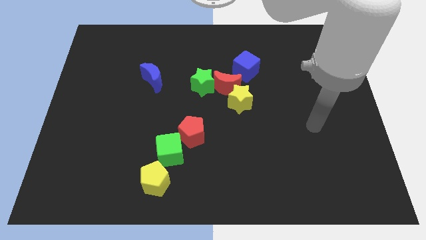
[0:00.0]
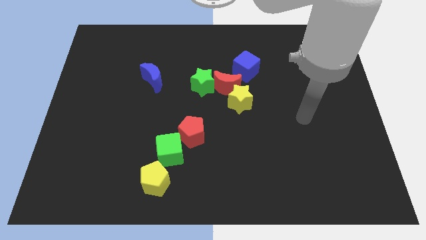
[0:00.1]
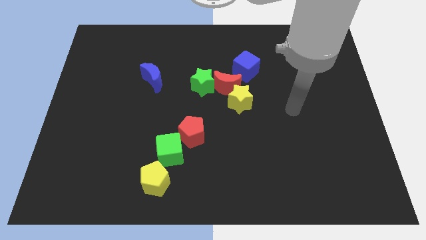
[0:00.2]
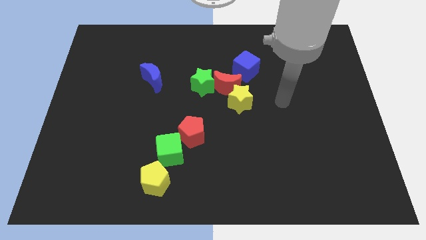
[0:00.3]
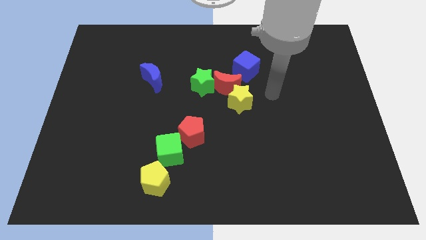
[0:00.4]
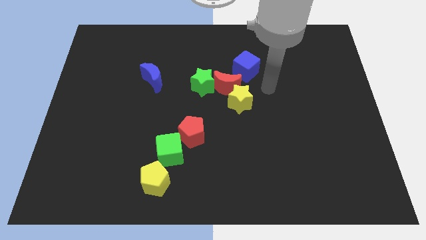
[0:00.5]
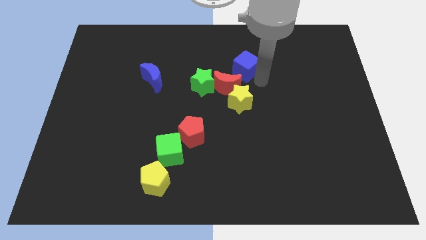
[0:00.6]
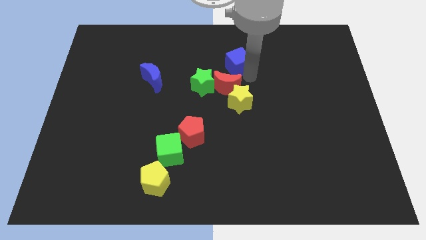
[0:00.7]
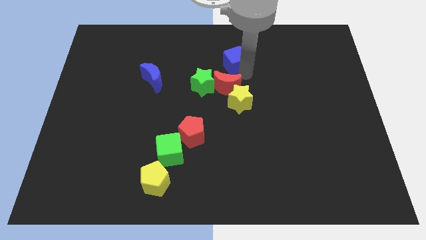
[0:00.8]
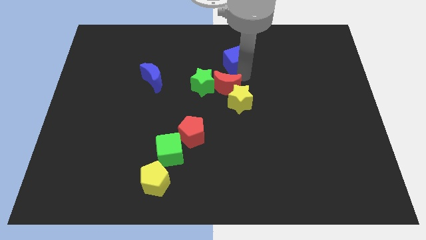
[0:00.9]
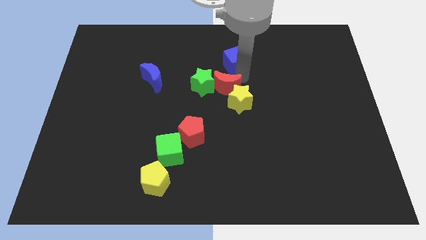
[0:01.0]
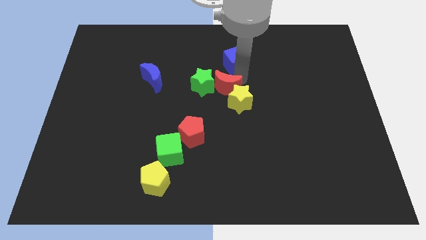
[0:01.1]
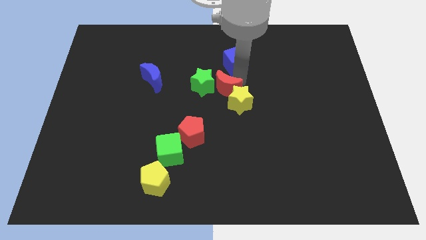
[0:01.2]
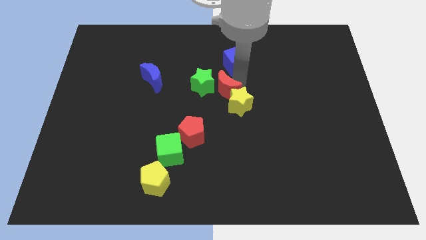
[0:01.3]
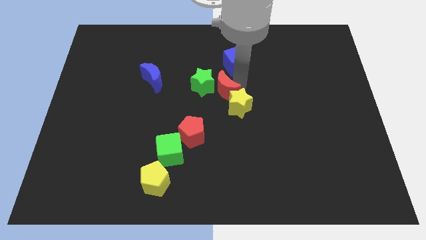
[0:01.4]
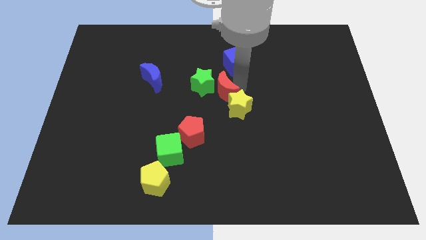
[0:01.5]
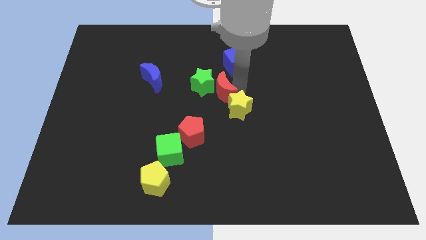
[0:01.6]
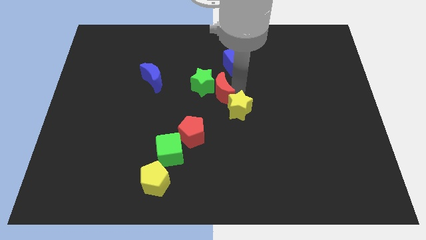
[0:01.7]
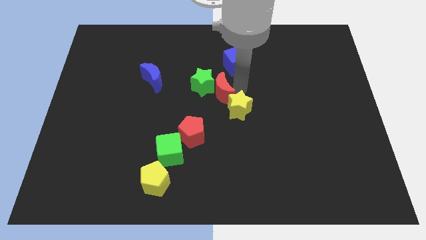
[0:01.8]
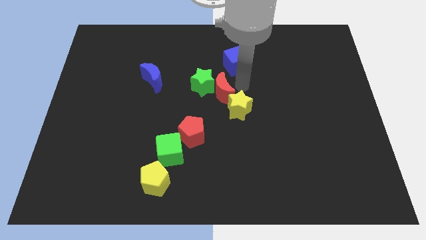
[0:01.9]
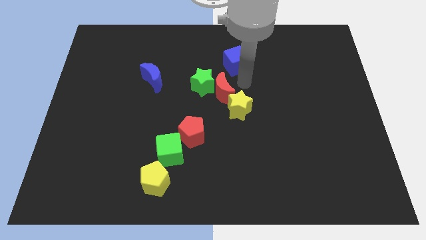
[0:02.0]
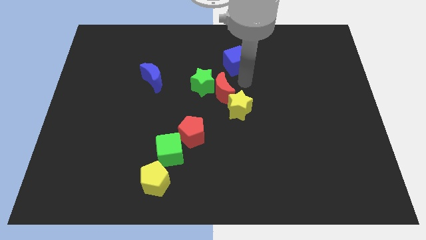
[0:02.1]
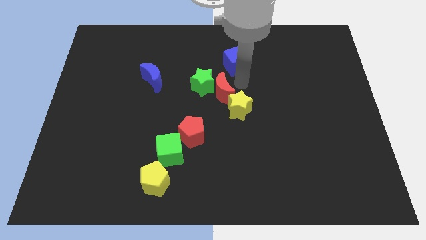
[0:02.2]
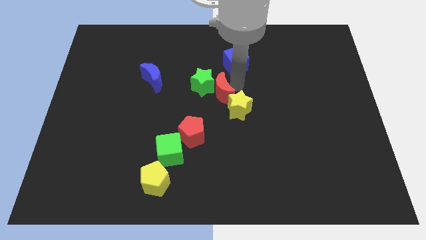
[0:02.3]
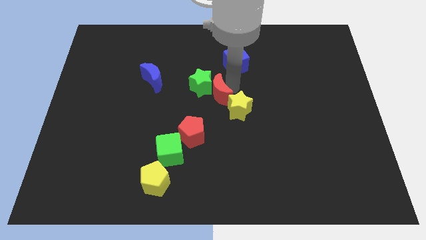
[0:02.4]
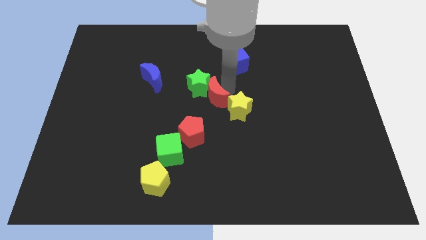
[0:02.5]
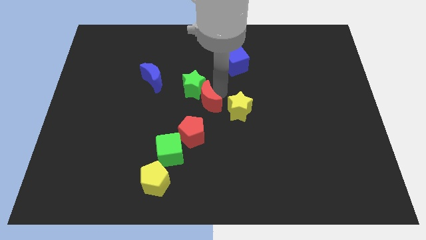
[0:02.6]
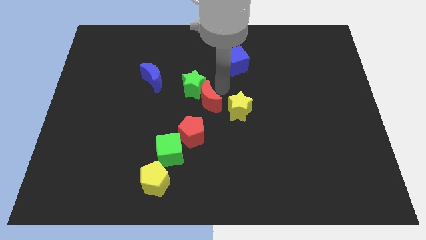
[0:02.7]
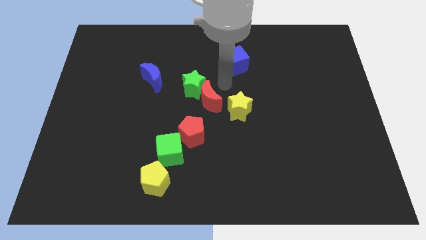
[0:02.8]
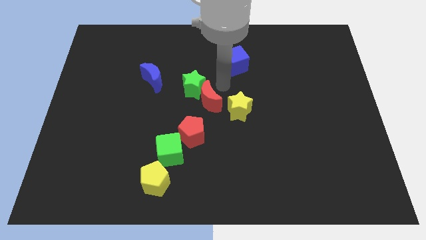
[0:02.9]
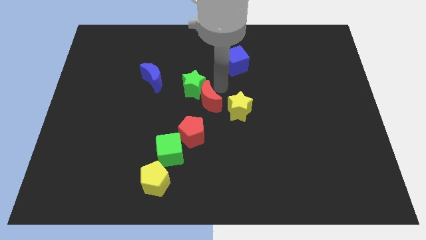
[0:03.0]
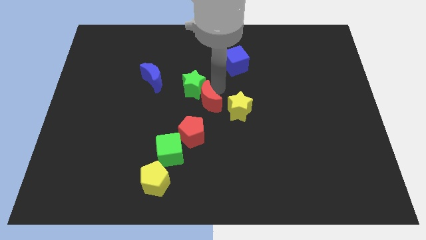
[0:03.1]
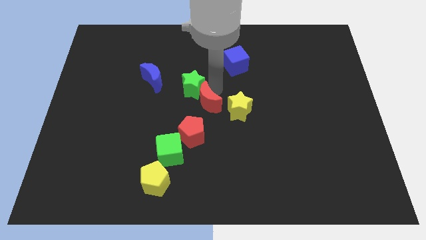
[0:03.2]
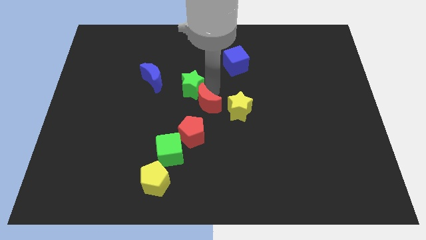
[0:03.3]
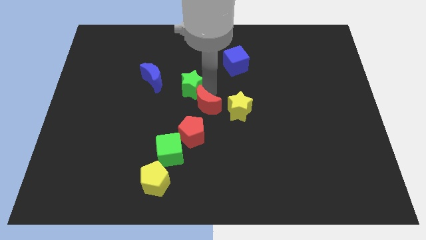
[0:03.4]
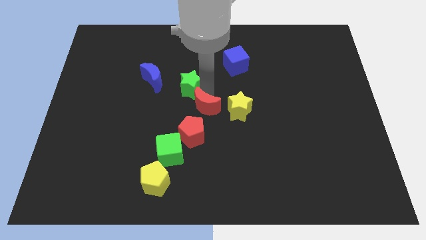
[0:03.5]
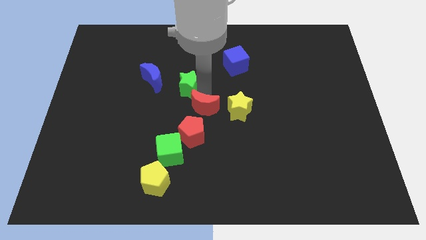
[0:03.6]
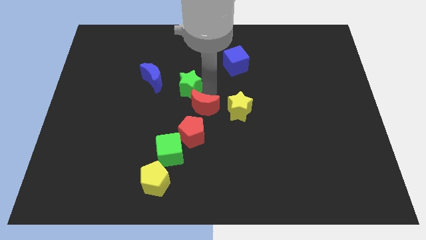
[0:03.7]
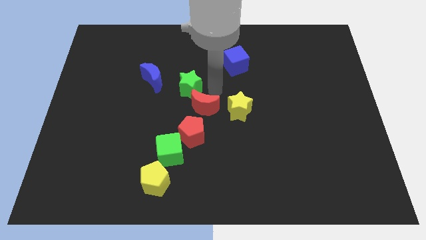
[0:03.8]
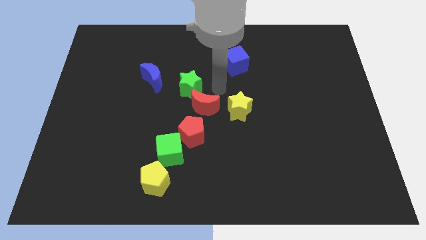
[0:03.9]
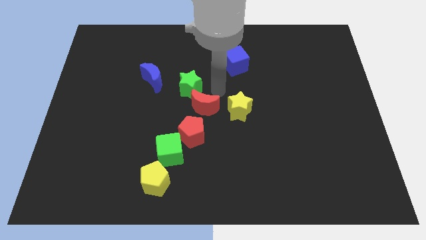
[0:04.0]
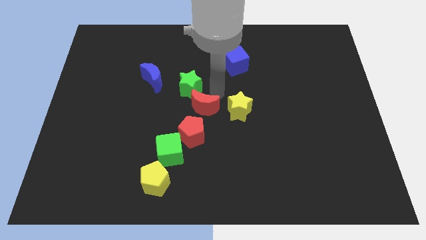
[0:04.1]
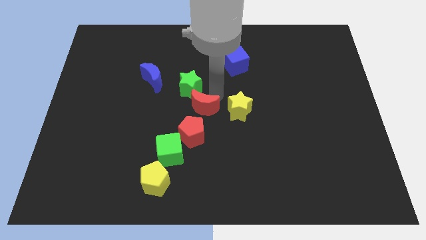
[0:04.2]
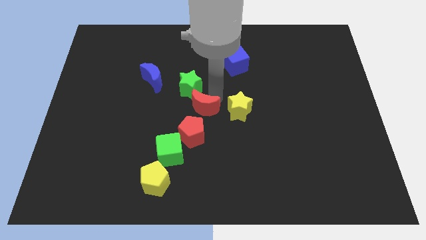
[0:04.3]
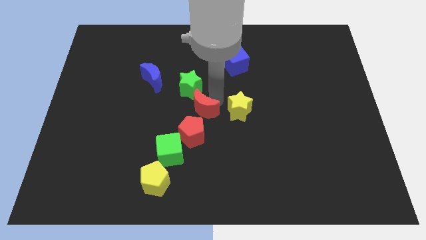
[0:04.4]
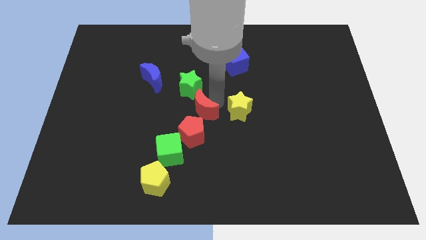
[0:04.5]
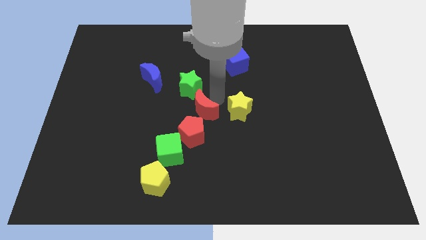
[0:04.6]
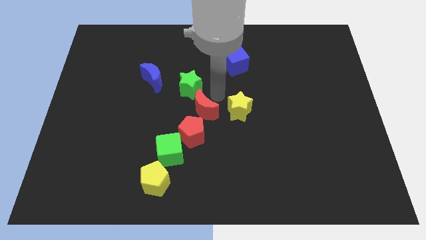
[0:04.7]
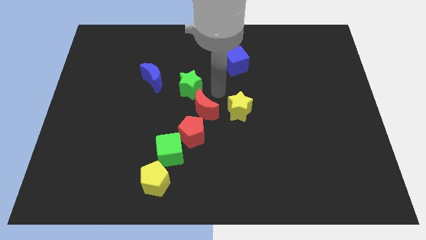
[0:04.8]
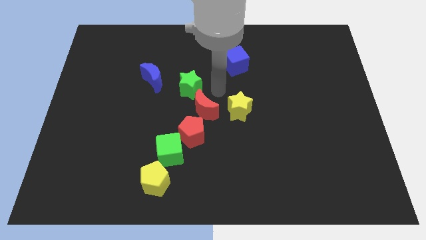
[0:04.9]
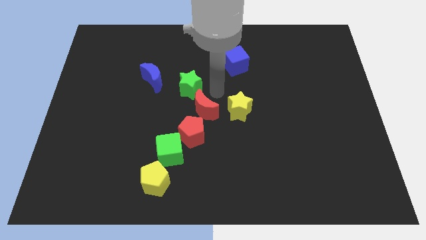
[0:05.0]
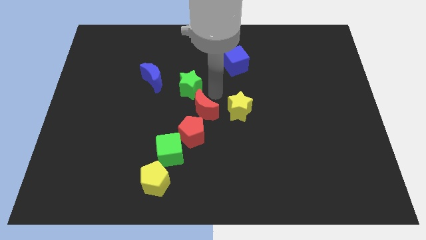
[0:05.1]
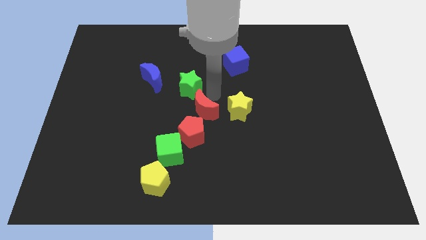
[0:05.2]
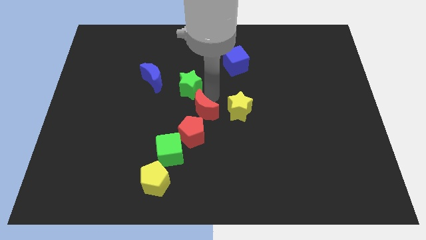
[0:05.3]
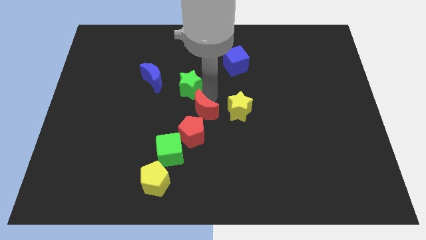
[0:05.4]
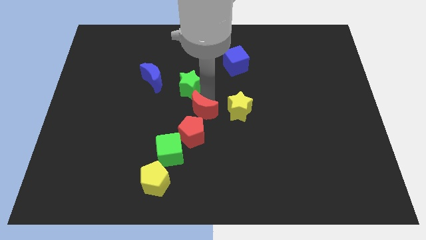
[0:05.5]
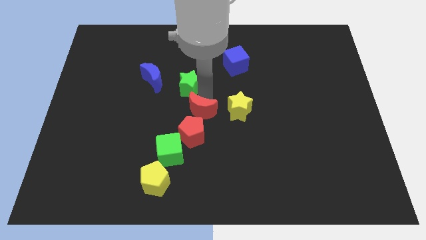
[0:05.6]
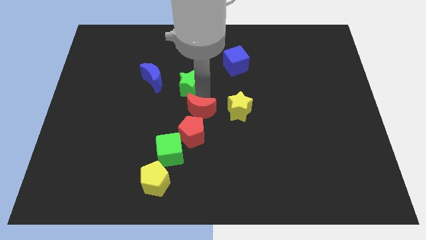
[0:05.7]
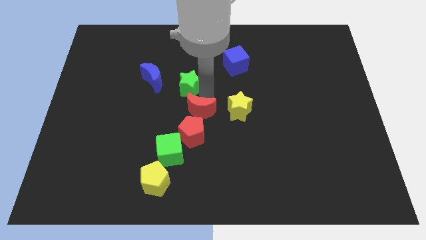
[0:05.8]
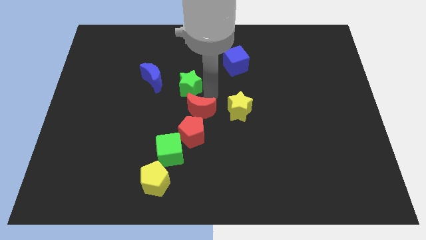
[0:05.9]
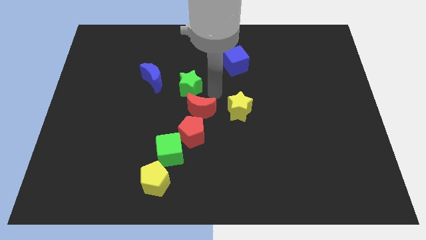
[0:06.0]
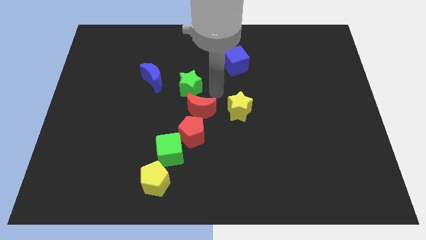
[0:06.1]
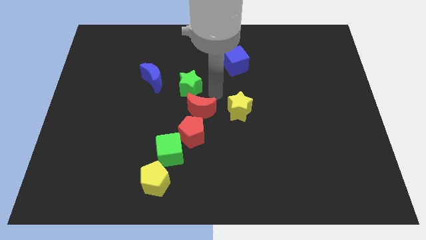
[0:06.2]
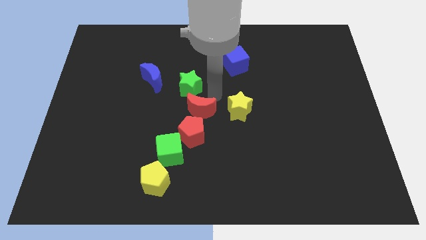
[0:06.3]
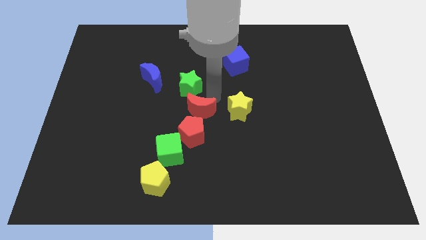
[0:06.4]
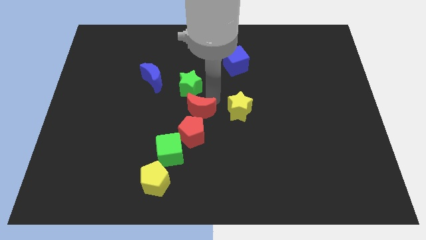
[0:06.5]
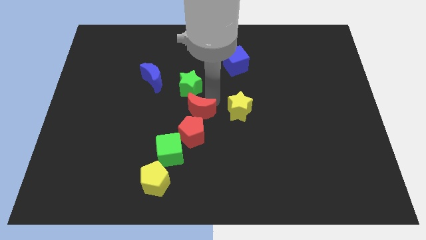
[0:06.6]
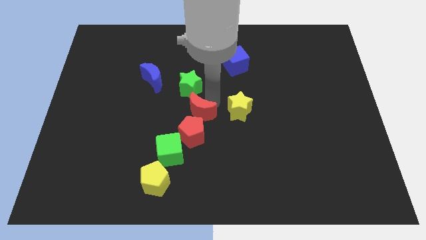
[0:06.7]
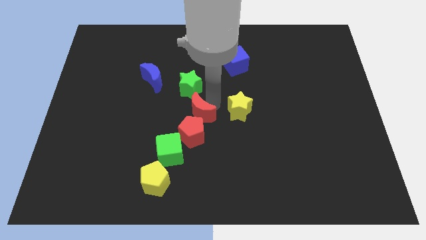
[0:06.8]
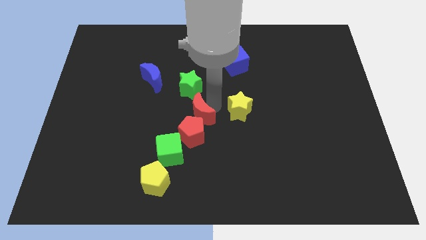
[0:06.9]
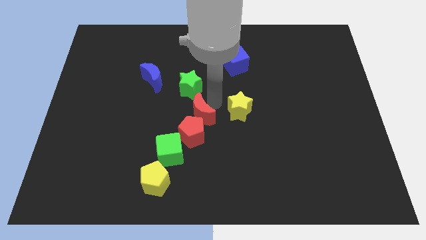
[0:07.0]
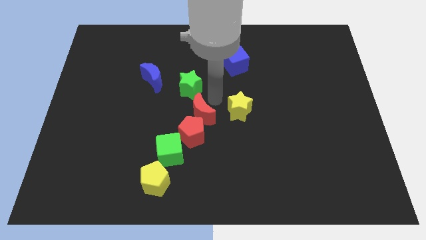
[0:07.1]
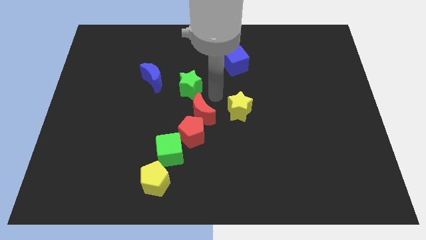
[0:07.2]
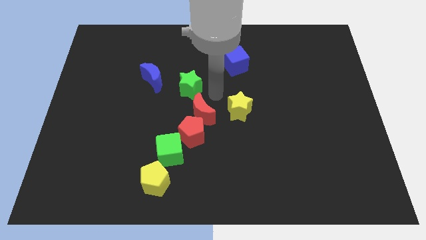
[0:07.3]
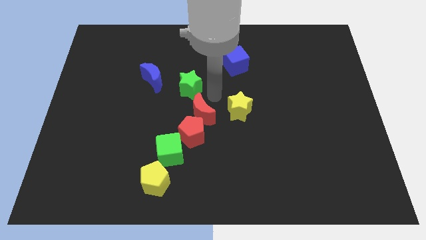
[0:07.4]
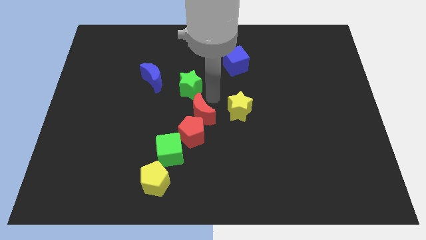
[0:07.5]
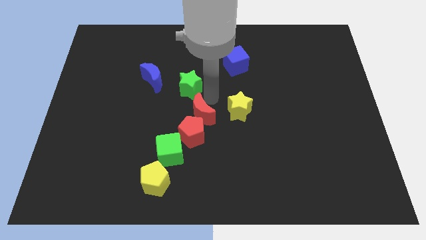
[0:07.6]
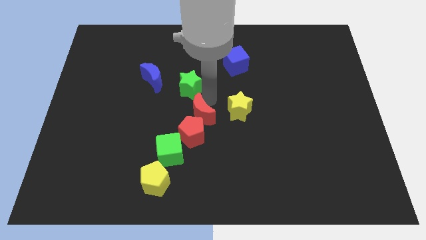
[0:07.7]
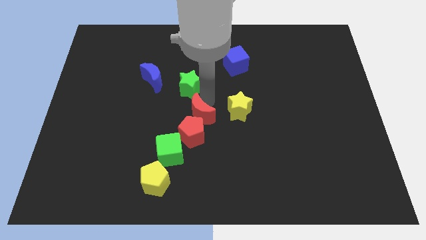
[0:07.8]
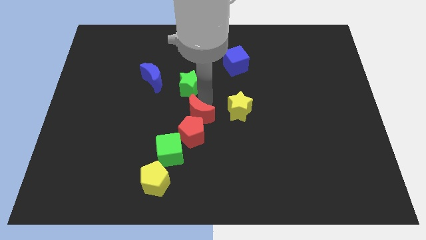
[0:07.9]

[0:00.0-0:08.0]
pull the red moon apart from the group of blocks

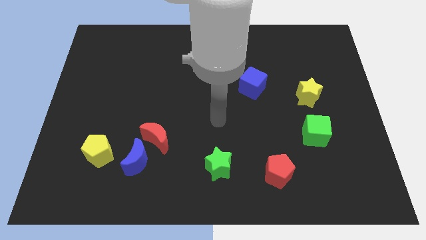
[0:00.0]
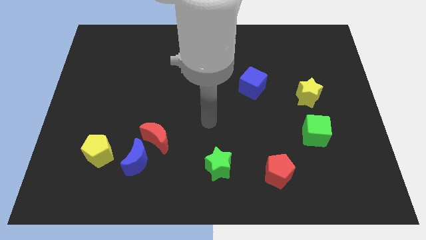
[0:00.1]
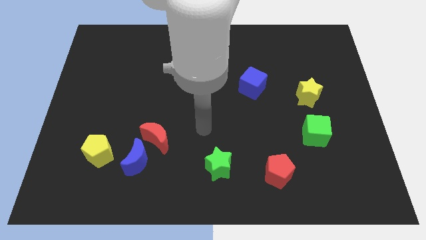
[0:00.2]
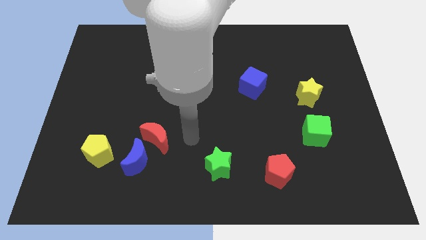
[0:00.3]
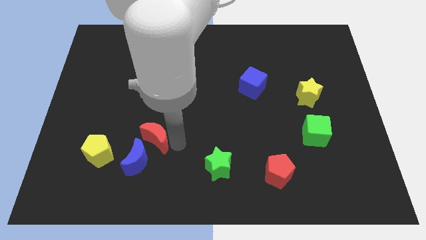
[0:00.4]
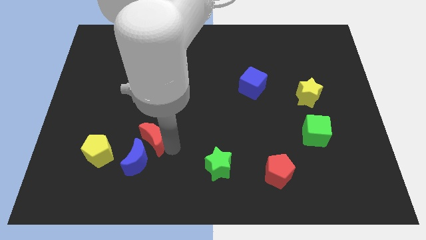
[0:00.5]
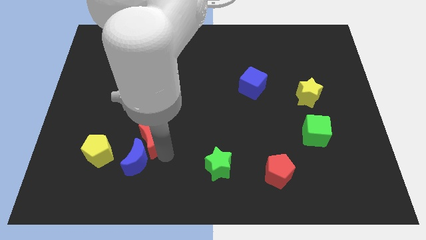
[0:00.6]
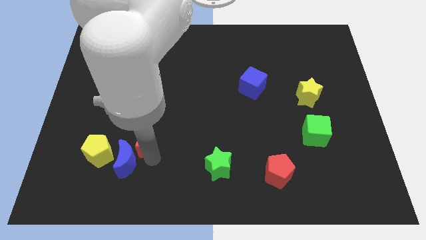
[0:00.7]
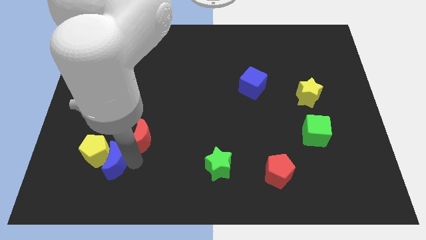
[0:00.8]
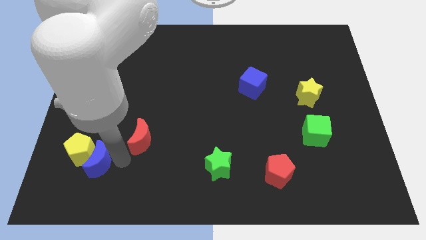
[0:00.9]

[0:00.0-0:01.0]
move the red moon away from the blue moon

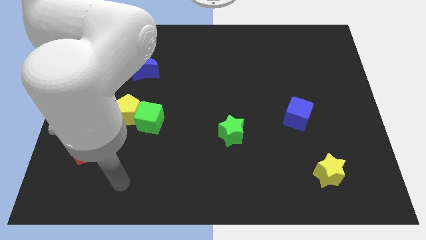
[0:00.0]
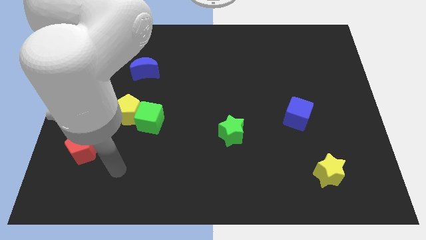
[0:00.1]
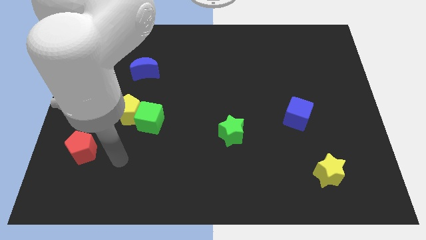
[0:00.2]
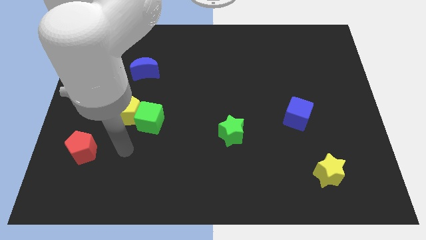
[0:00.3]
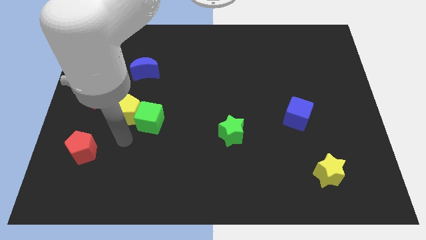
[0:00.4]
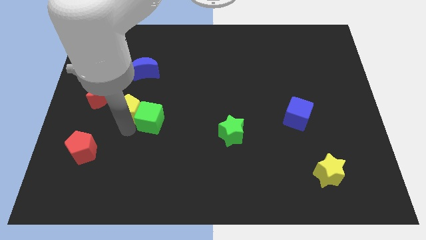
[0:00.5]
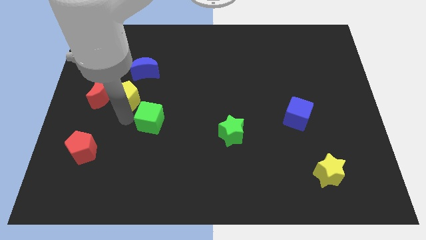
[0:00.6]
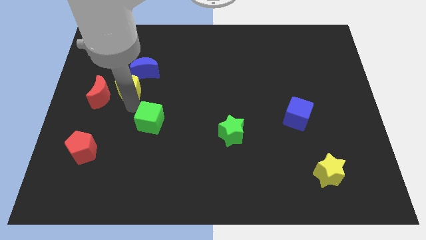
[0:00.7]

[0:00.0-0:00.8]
pull the green cube apart from the yellow pentagon
